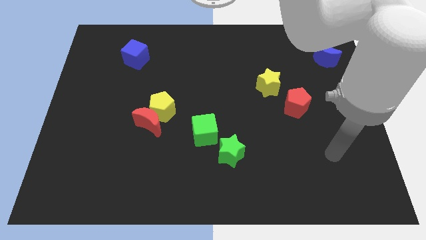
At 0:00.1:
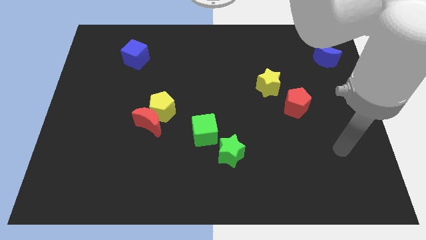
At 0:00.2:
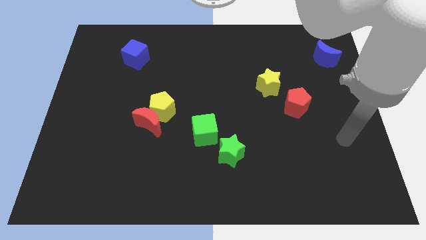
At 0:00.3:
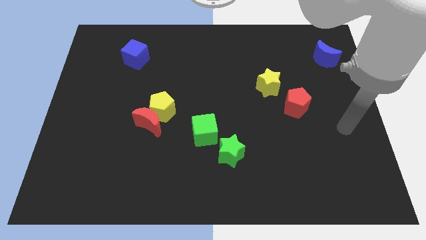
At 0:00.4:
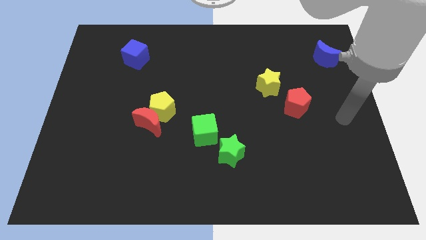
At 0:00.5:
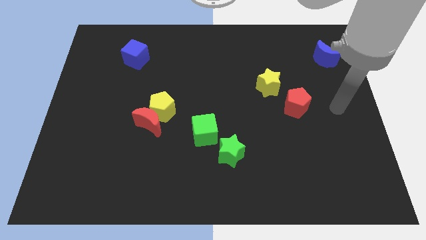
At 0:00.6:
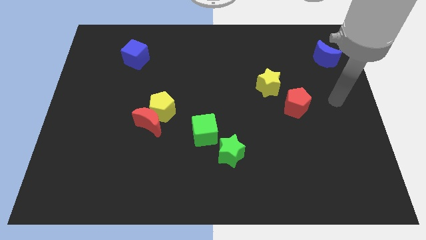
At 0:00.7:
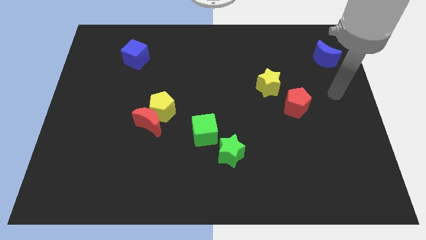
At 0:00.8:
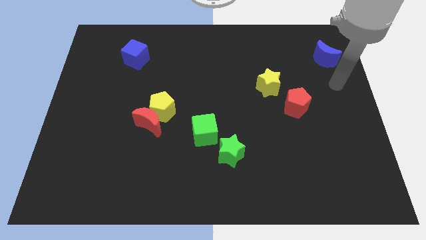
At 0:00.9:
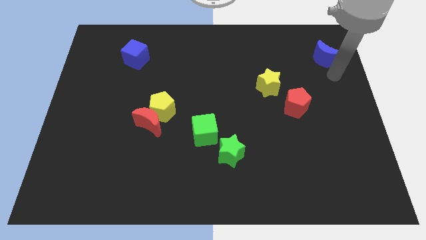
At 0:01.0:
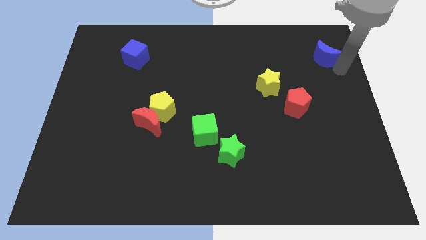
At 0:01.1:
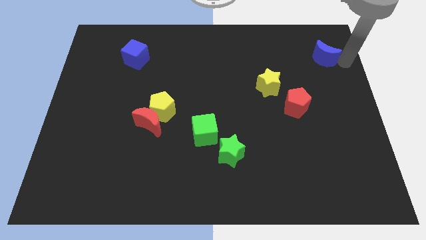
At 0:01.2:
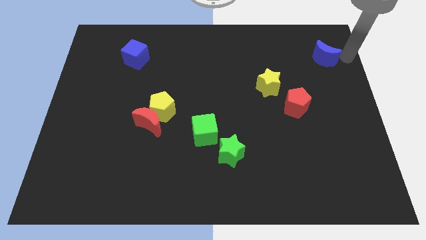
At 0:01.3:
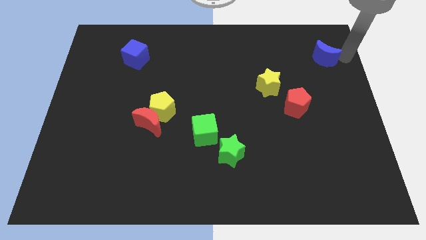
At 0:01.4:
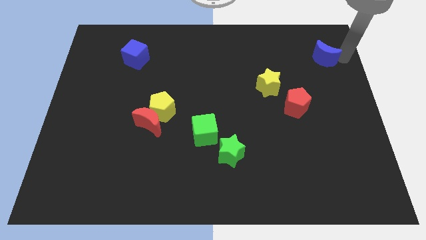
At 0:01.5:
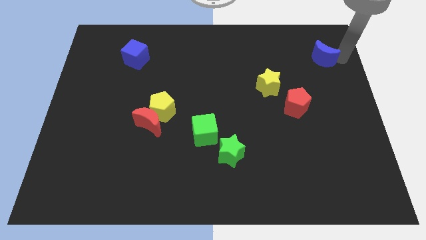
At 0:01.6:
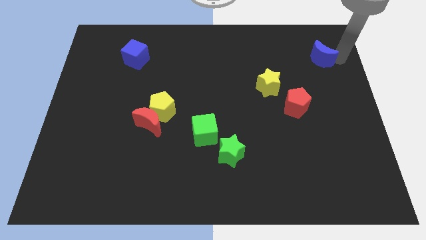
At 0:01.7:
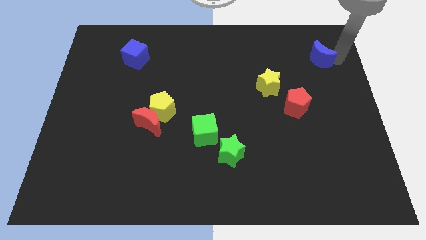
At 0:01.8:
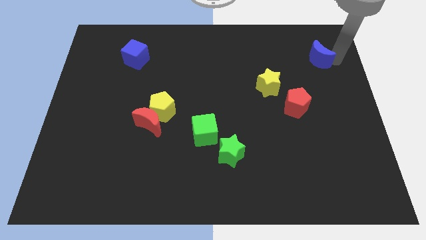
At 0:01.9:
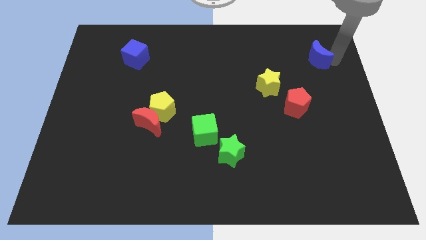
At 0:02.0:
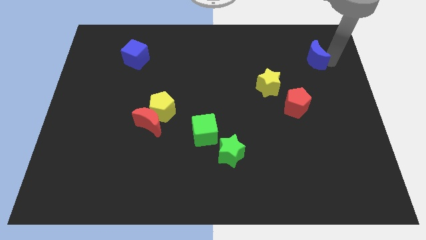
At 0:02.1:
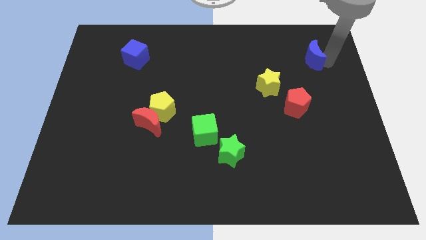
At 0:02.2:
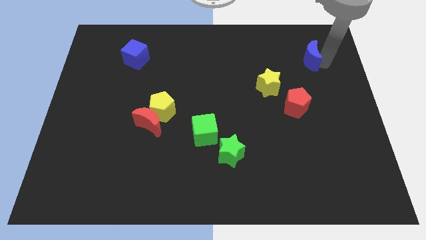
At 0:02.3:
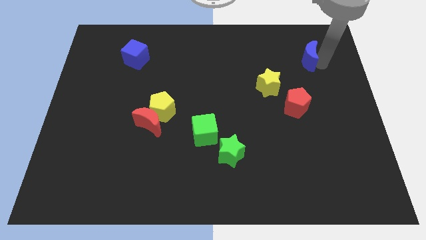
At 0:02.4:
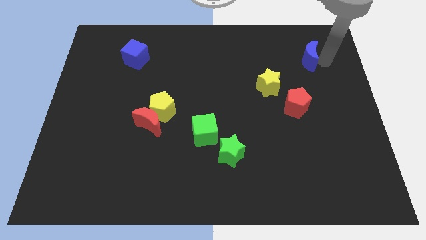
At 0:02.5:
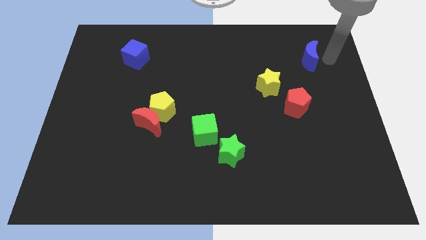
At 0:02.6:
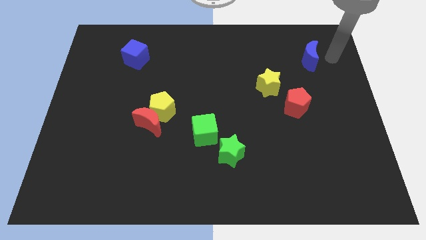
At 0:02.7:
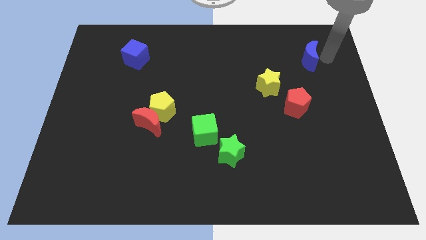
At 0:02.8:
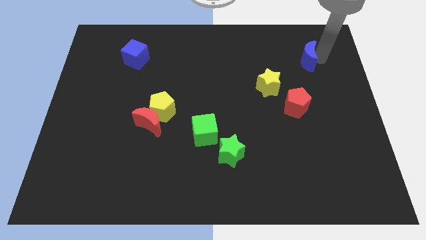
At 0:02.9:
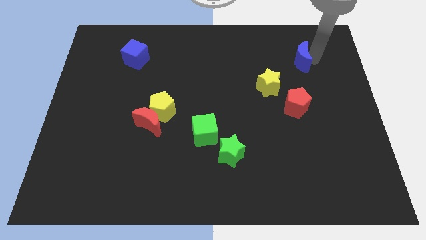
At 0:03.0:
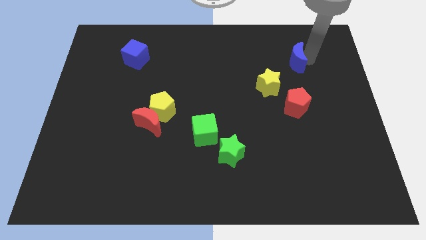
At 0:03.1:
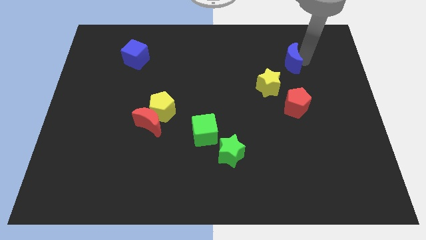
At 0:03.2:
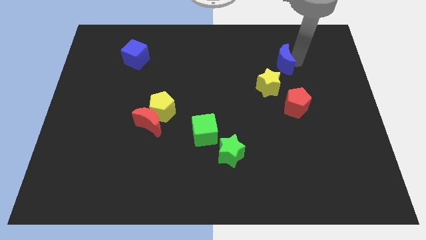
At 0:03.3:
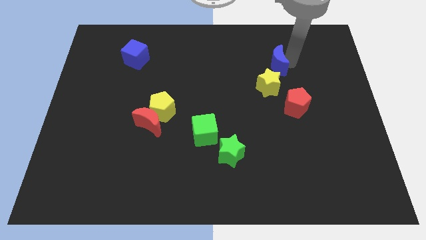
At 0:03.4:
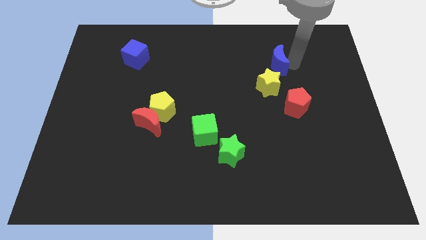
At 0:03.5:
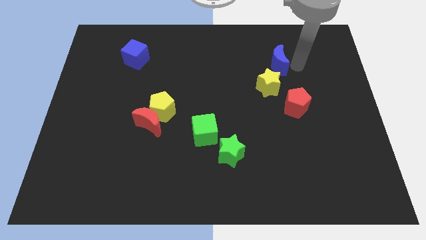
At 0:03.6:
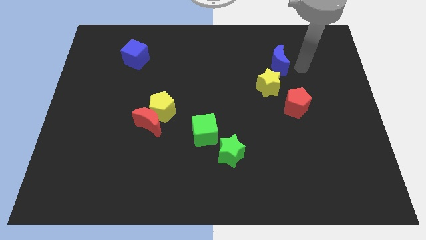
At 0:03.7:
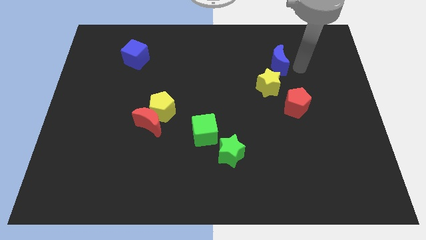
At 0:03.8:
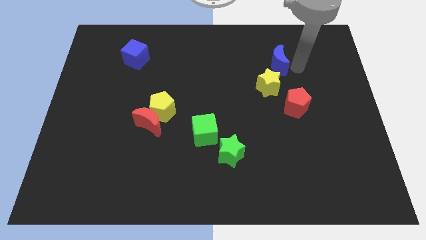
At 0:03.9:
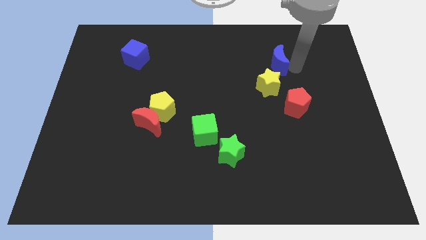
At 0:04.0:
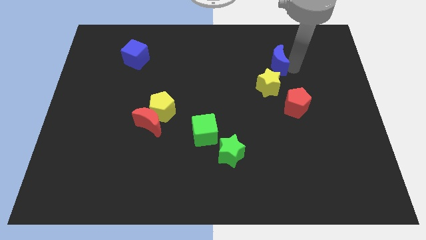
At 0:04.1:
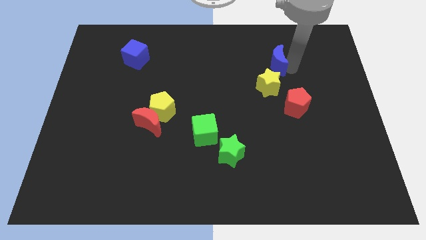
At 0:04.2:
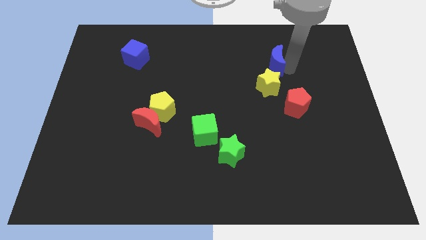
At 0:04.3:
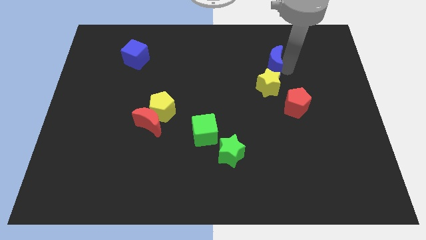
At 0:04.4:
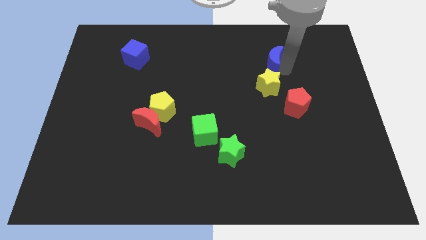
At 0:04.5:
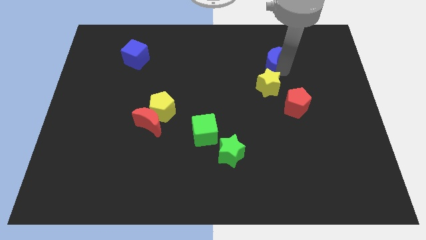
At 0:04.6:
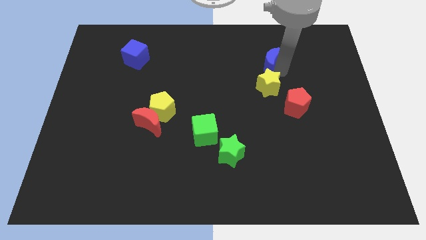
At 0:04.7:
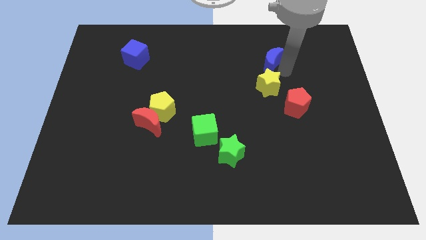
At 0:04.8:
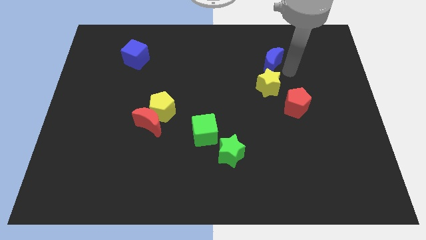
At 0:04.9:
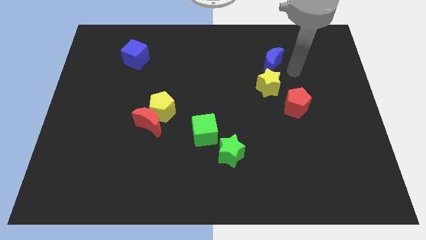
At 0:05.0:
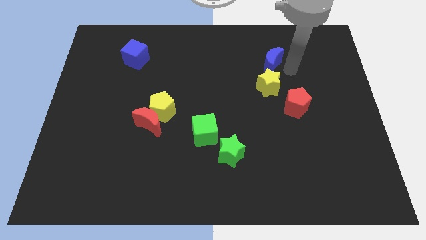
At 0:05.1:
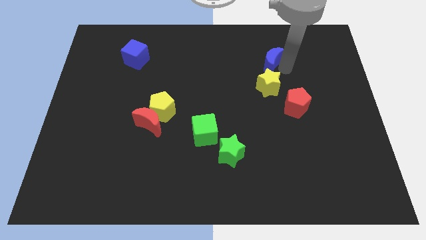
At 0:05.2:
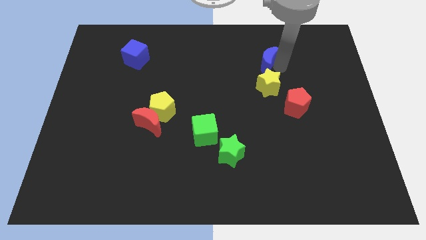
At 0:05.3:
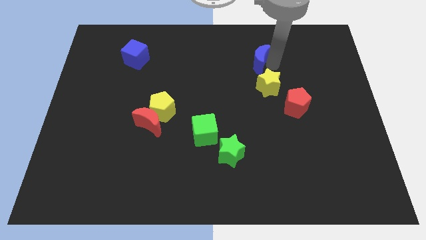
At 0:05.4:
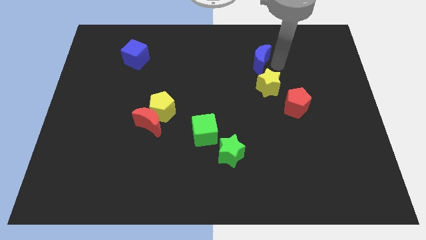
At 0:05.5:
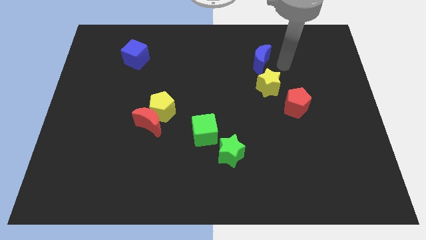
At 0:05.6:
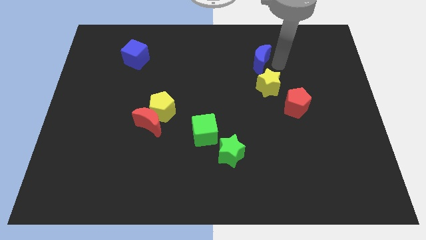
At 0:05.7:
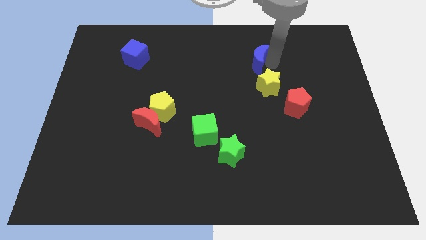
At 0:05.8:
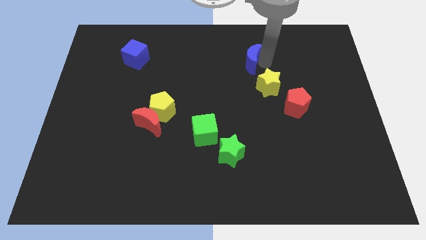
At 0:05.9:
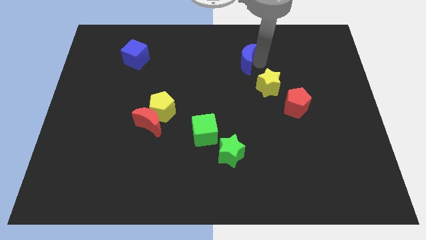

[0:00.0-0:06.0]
move the blue moon left

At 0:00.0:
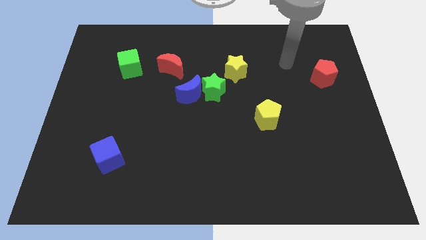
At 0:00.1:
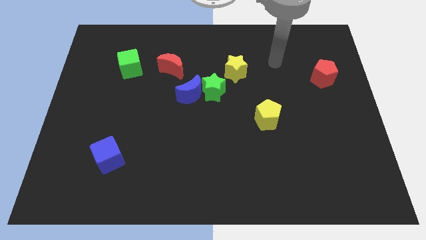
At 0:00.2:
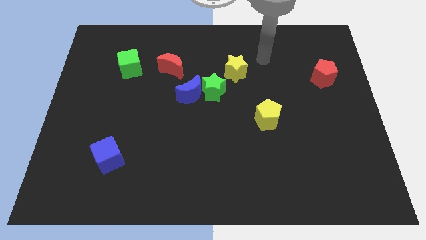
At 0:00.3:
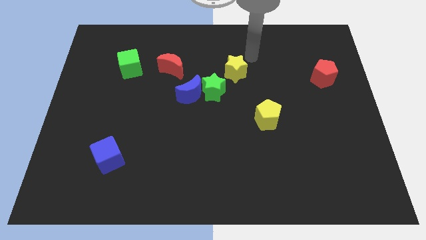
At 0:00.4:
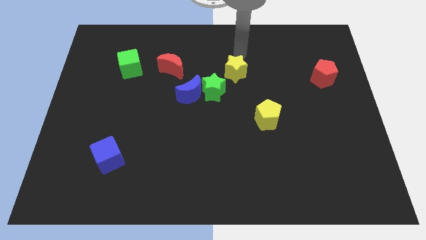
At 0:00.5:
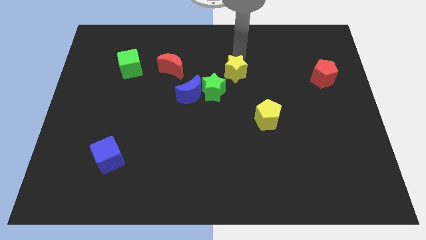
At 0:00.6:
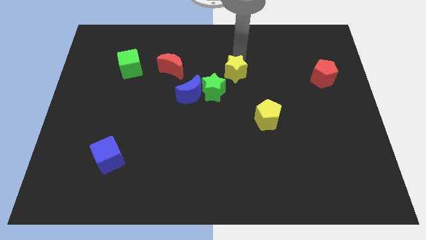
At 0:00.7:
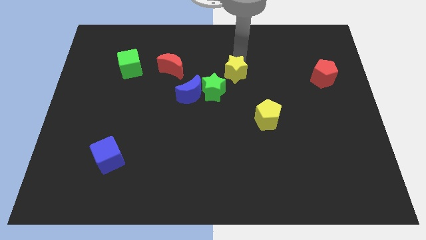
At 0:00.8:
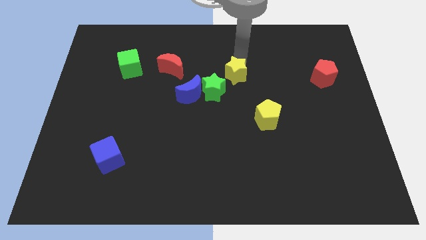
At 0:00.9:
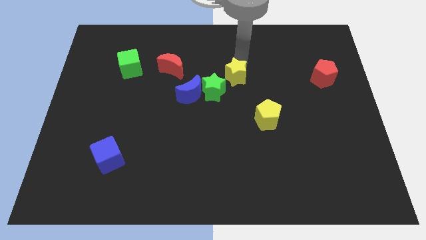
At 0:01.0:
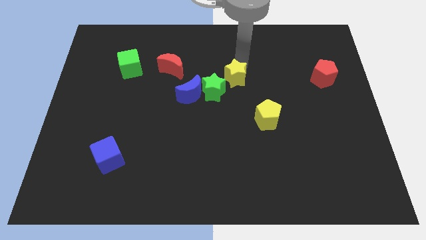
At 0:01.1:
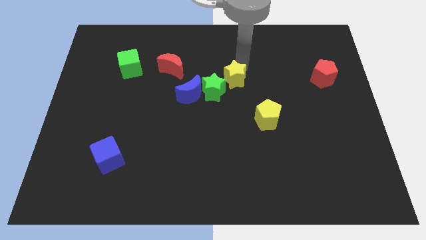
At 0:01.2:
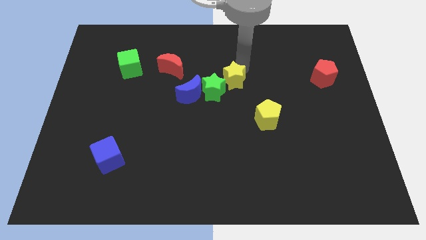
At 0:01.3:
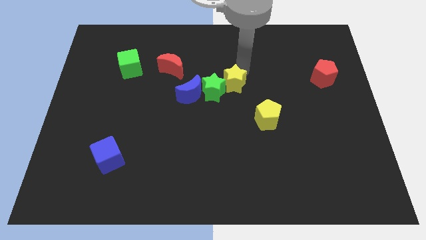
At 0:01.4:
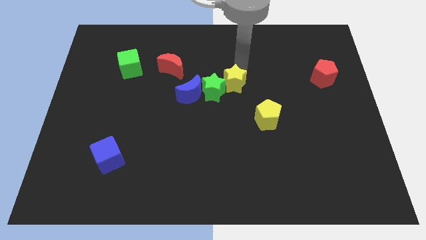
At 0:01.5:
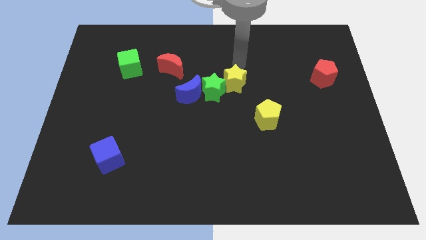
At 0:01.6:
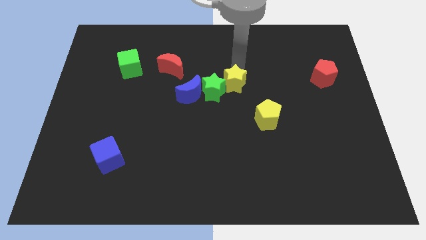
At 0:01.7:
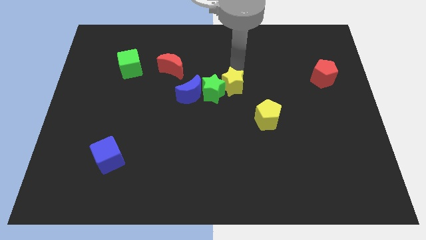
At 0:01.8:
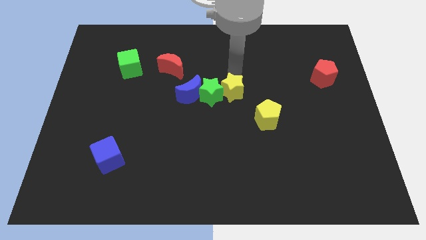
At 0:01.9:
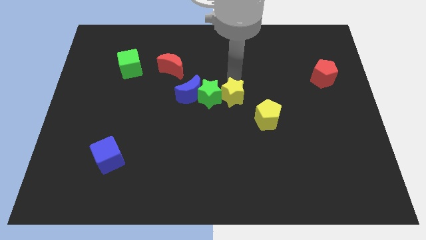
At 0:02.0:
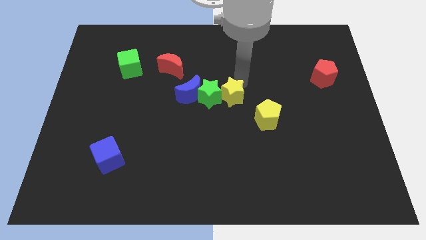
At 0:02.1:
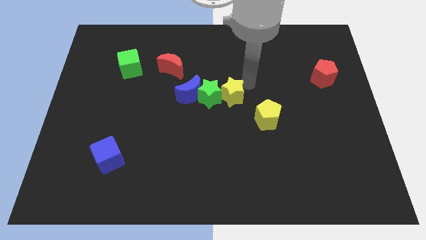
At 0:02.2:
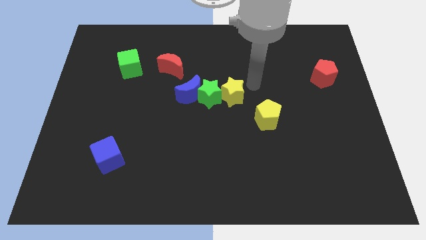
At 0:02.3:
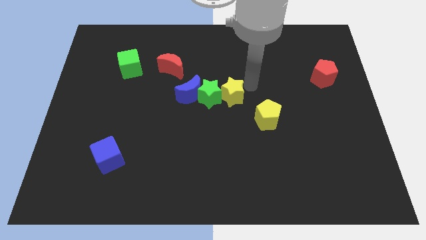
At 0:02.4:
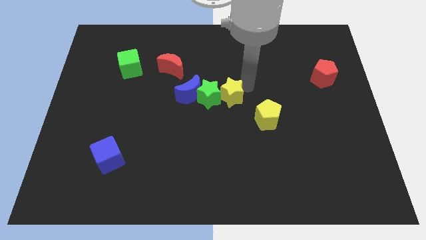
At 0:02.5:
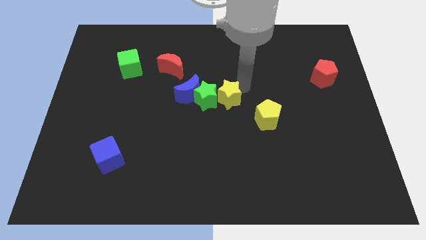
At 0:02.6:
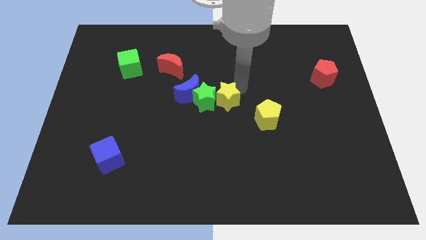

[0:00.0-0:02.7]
slightly push the yellow star down and to the left diagonally
